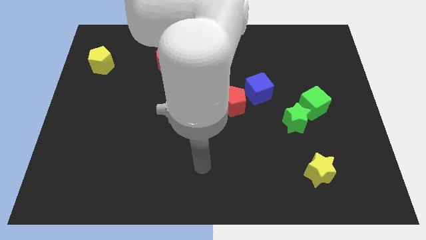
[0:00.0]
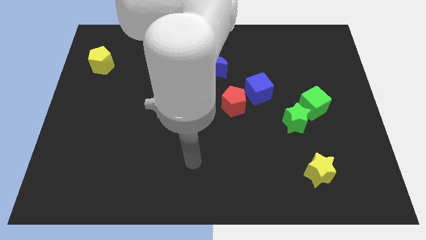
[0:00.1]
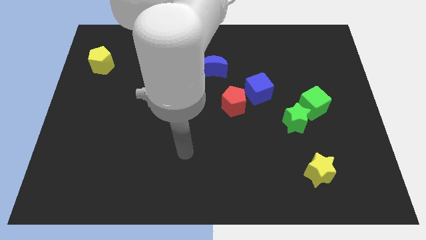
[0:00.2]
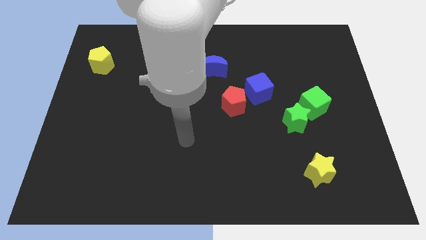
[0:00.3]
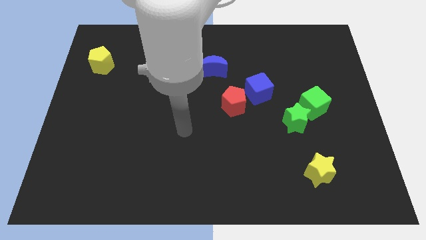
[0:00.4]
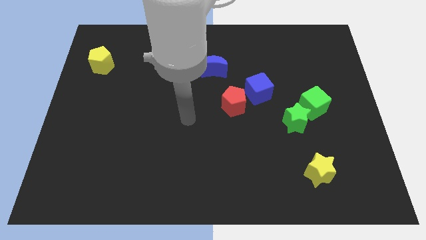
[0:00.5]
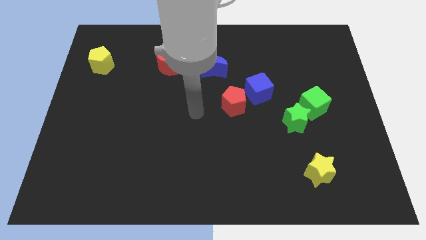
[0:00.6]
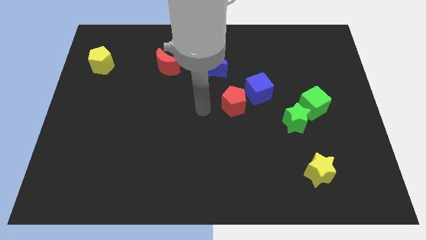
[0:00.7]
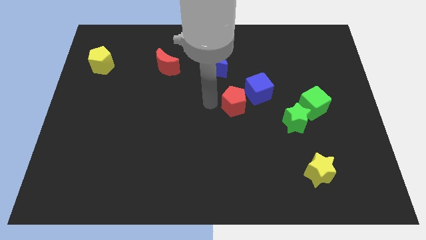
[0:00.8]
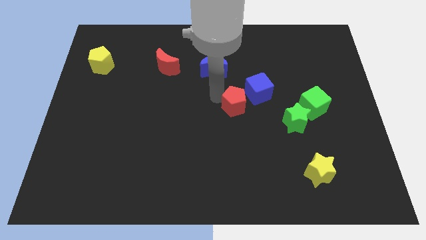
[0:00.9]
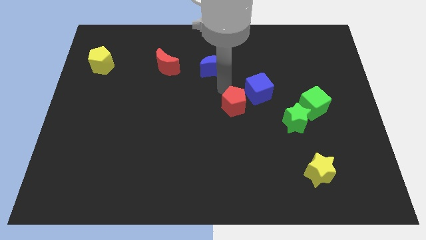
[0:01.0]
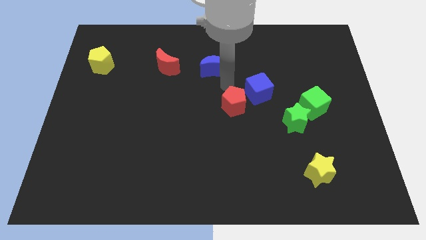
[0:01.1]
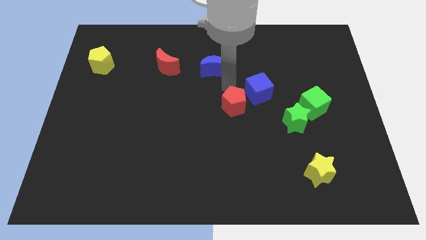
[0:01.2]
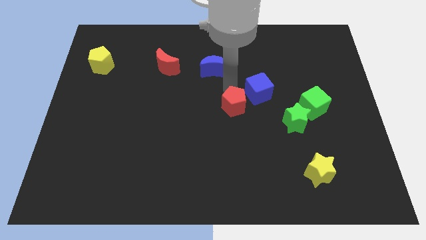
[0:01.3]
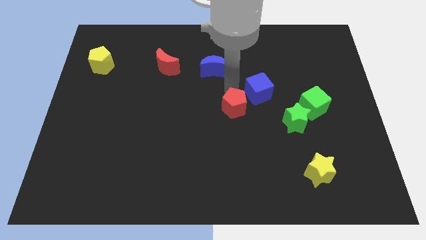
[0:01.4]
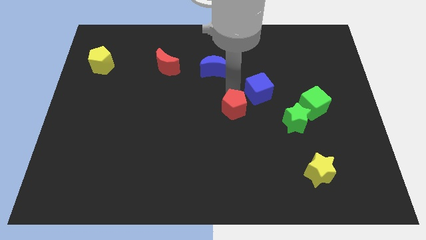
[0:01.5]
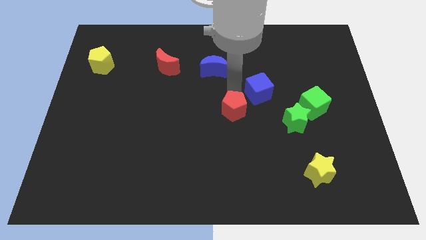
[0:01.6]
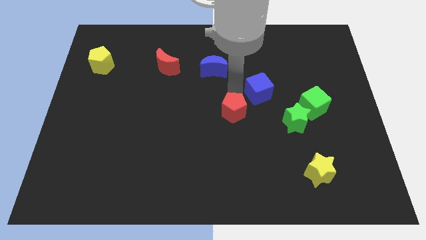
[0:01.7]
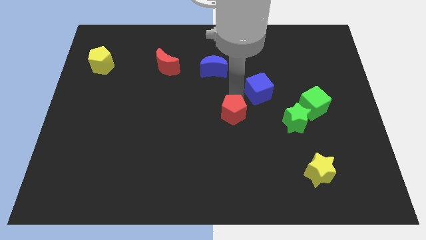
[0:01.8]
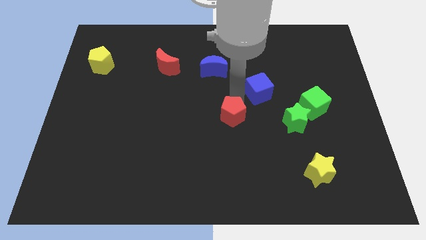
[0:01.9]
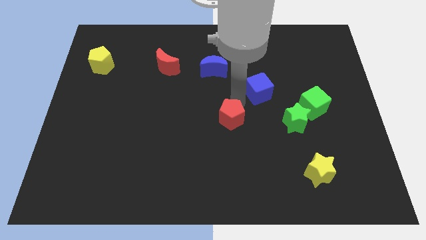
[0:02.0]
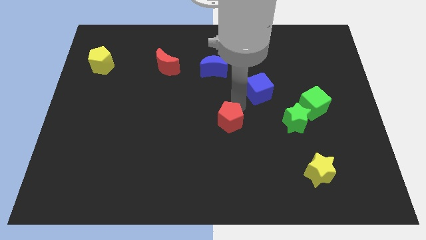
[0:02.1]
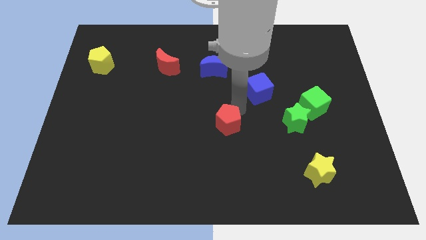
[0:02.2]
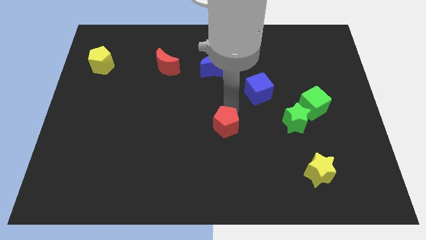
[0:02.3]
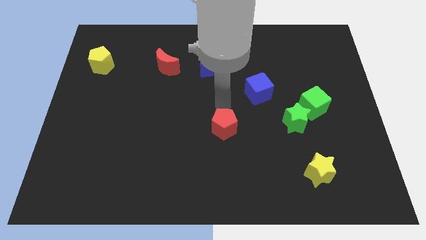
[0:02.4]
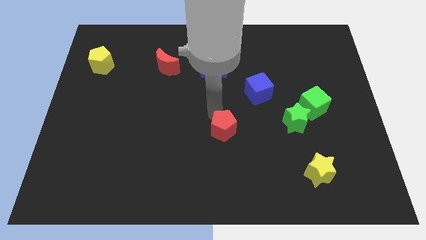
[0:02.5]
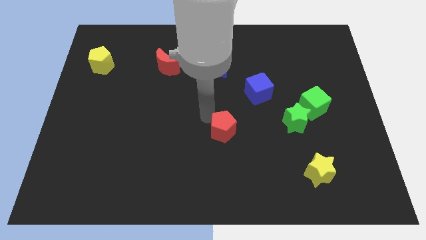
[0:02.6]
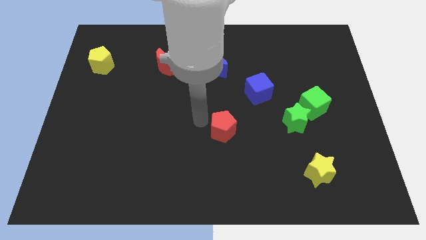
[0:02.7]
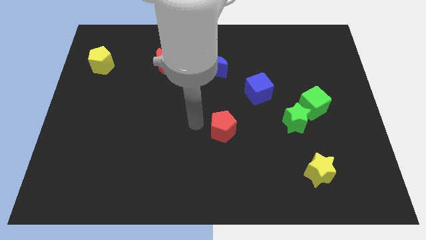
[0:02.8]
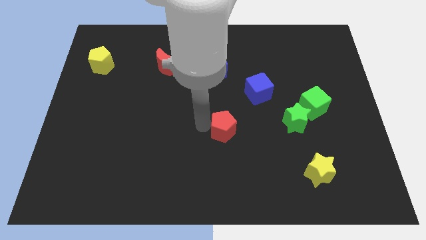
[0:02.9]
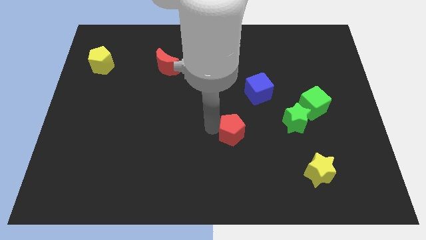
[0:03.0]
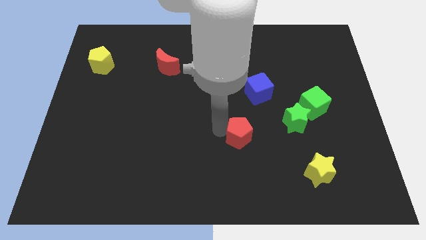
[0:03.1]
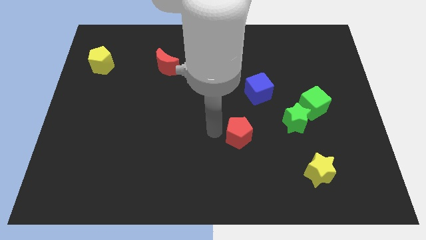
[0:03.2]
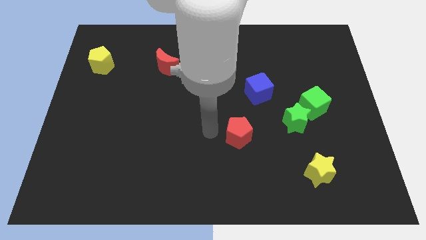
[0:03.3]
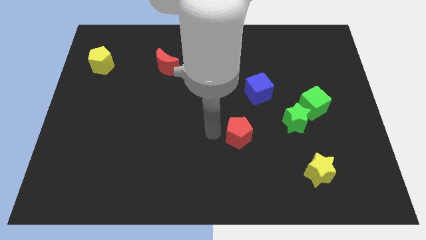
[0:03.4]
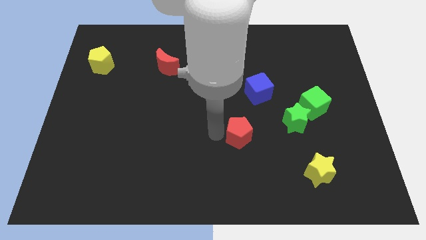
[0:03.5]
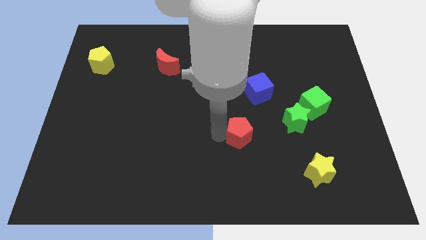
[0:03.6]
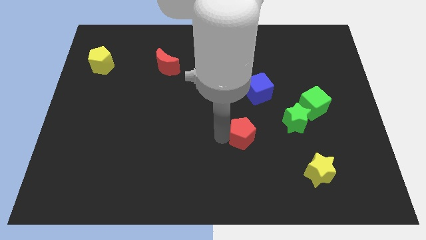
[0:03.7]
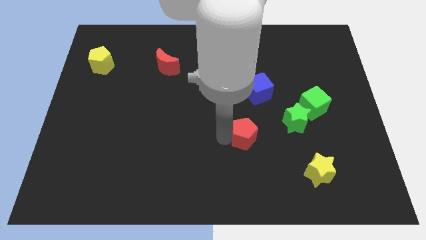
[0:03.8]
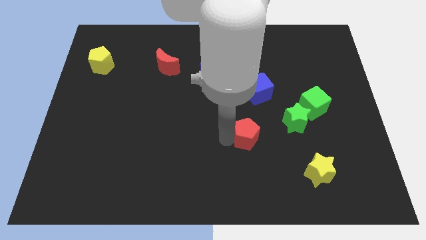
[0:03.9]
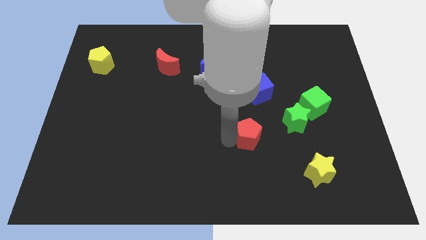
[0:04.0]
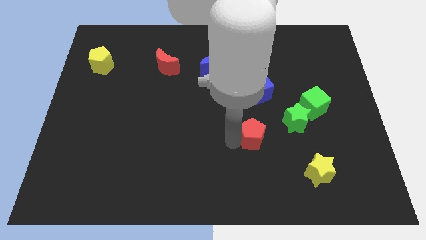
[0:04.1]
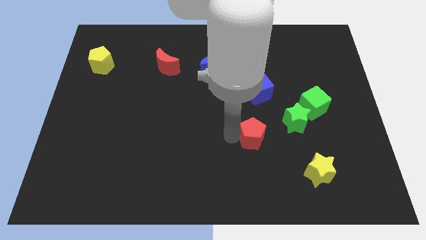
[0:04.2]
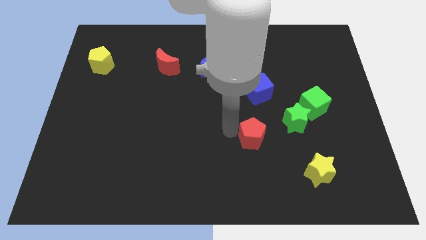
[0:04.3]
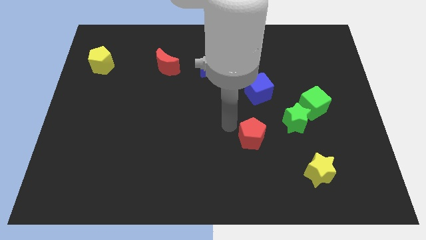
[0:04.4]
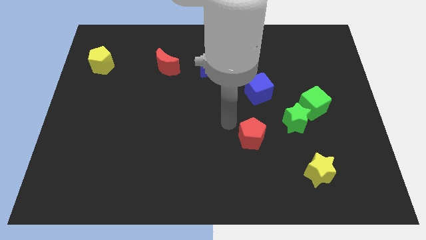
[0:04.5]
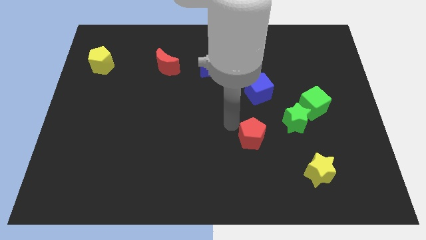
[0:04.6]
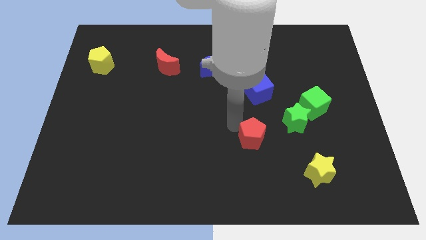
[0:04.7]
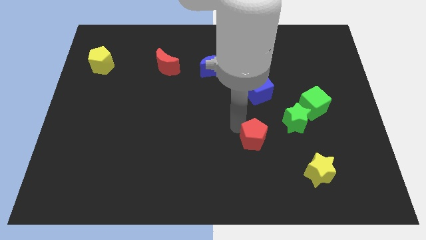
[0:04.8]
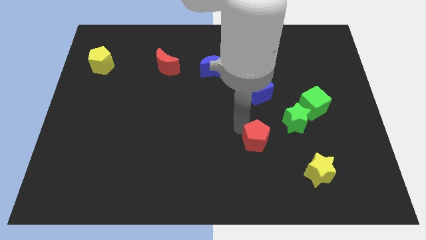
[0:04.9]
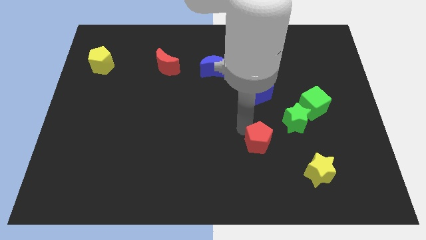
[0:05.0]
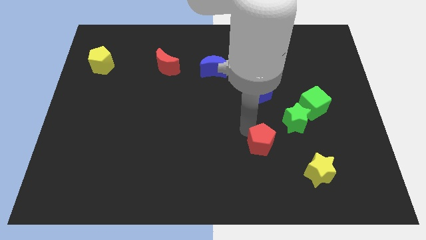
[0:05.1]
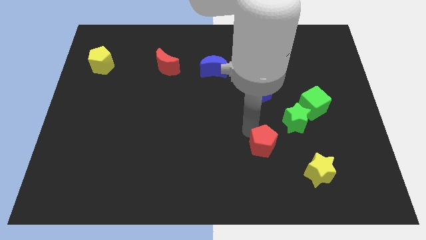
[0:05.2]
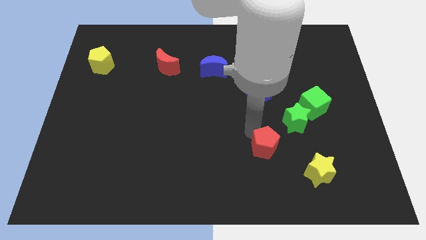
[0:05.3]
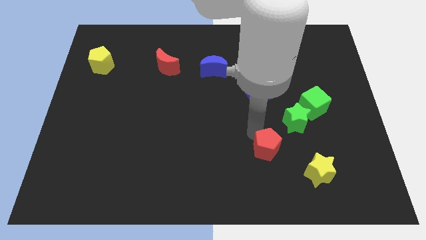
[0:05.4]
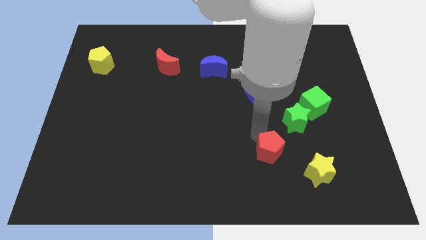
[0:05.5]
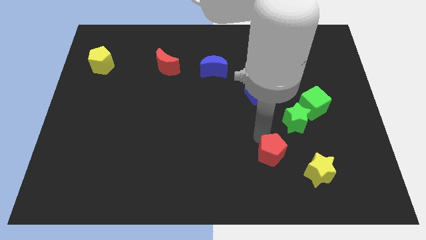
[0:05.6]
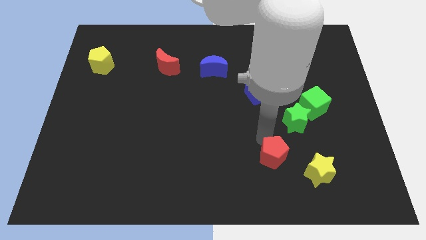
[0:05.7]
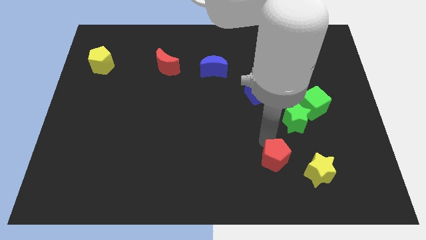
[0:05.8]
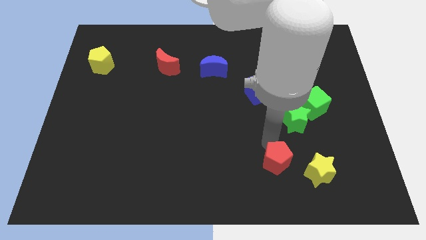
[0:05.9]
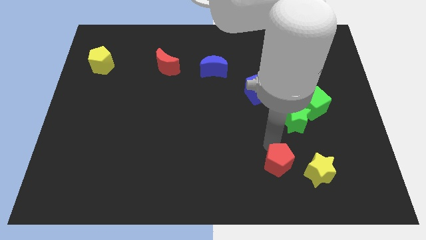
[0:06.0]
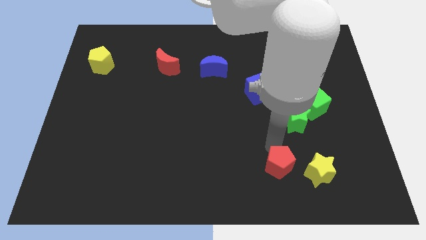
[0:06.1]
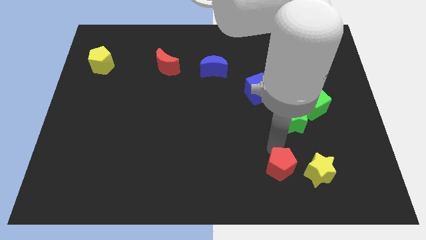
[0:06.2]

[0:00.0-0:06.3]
put the red pentagon to the bottom of the green star
